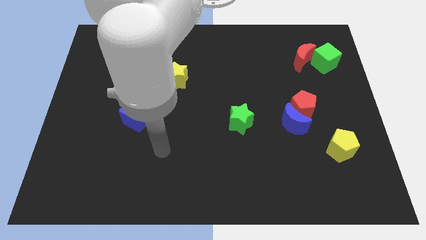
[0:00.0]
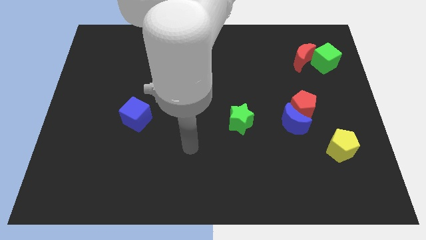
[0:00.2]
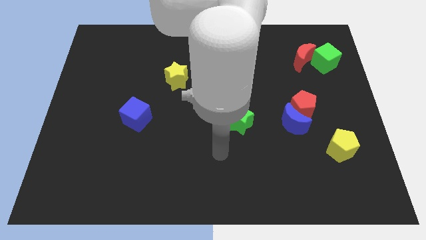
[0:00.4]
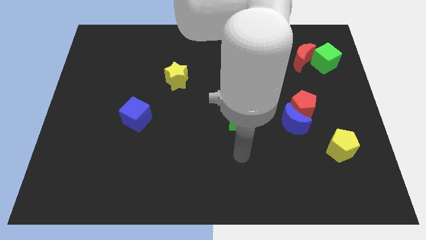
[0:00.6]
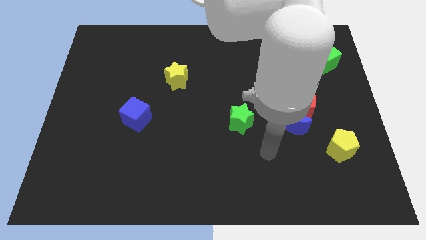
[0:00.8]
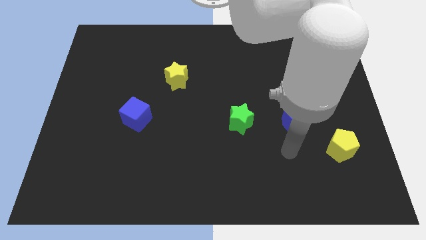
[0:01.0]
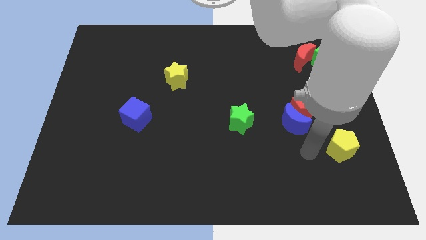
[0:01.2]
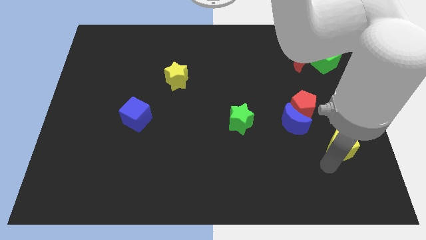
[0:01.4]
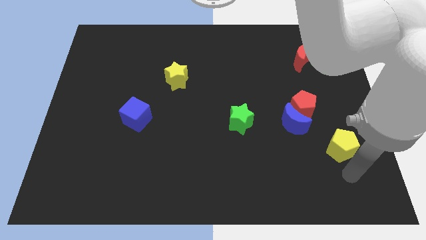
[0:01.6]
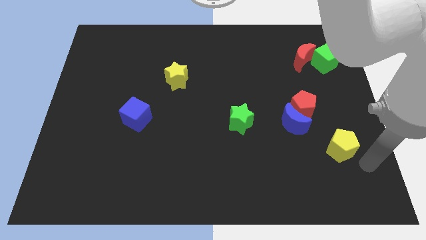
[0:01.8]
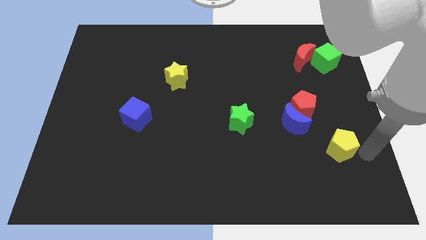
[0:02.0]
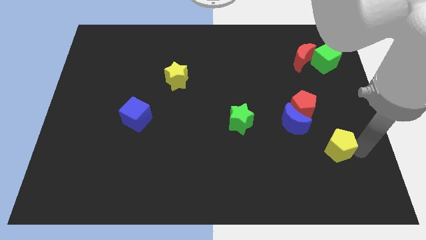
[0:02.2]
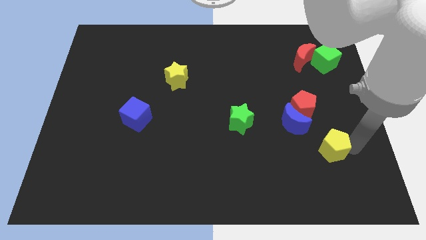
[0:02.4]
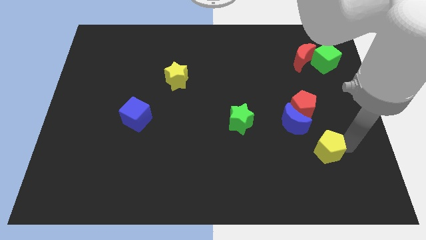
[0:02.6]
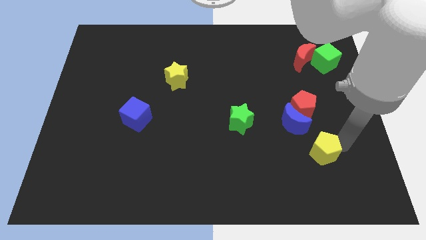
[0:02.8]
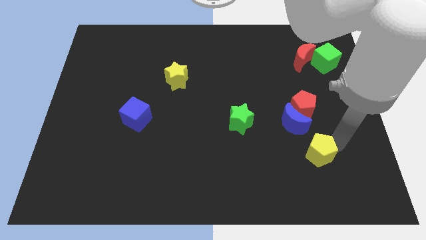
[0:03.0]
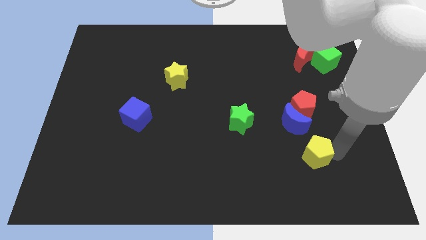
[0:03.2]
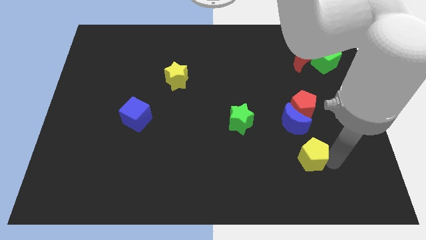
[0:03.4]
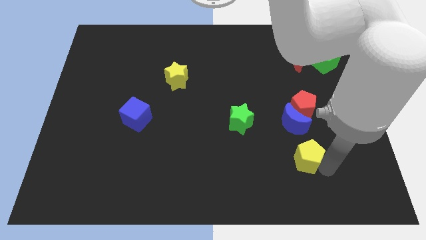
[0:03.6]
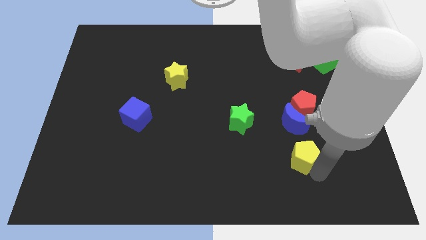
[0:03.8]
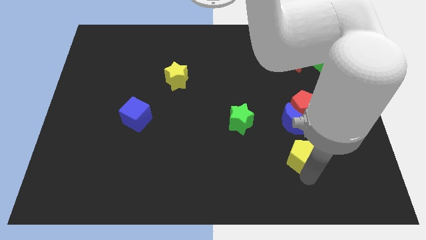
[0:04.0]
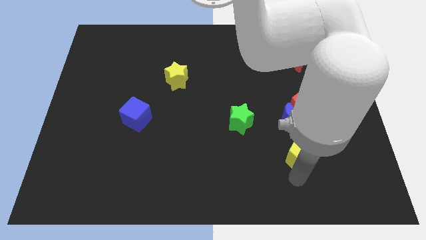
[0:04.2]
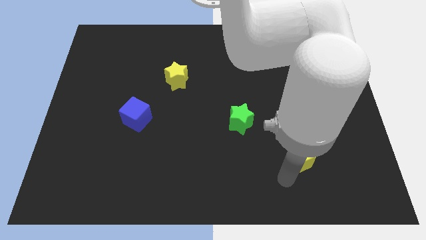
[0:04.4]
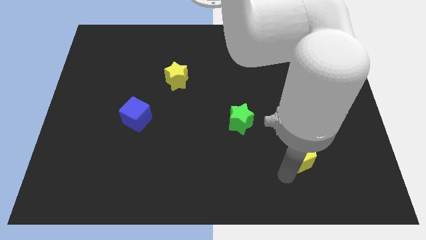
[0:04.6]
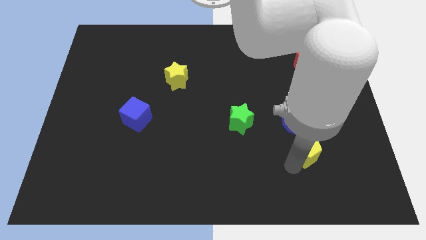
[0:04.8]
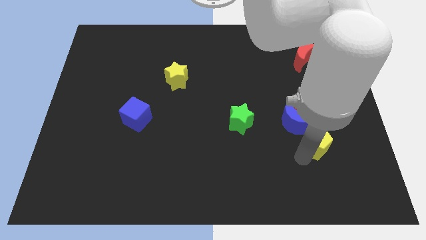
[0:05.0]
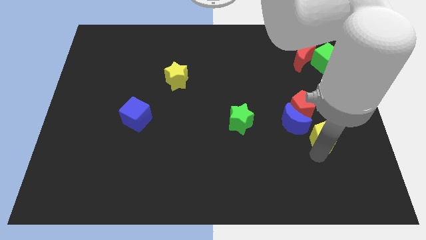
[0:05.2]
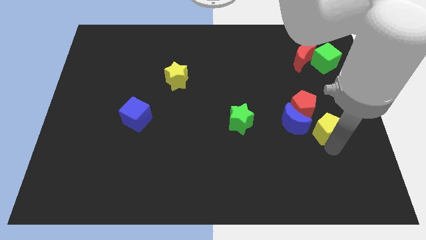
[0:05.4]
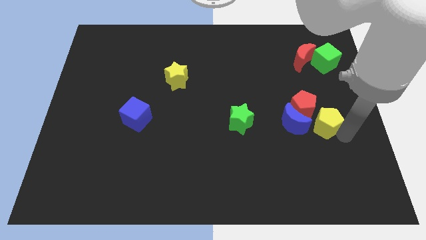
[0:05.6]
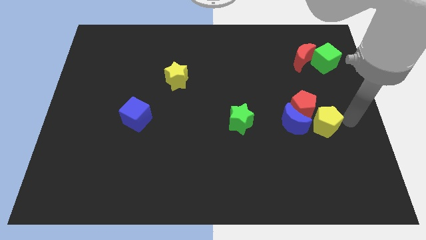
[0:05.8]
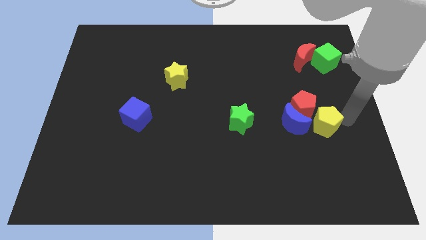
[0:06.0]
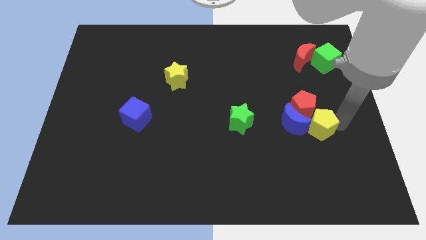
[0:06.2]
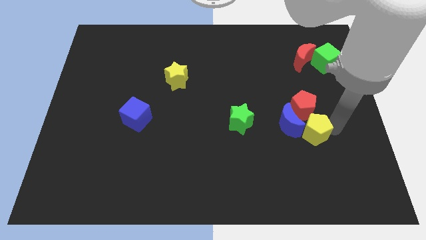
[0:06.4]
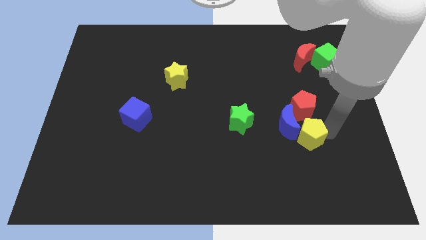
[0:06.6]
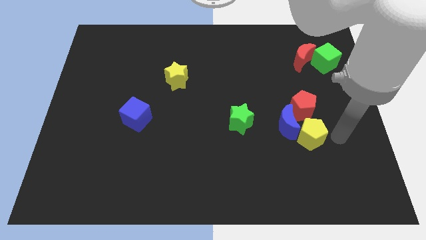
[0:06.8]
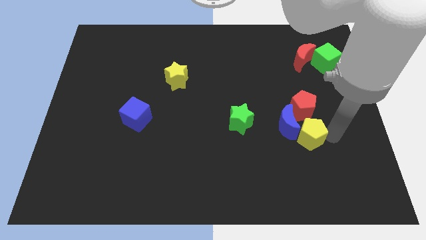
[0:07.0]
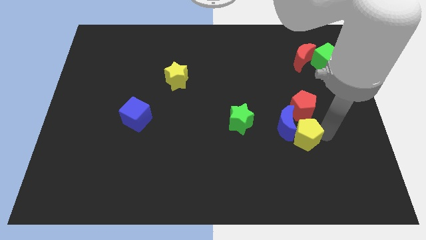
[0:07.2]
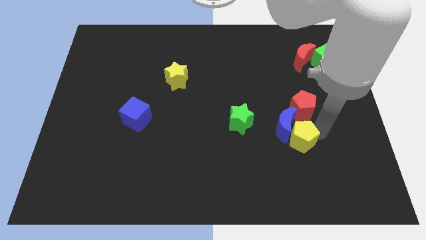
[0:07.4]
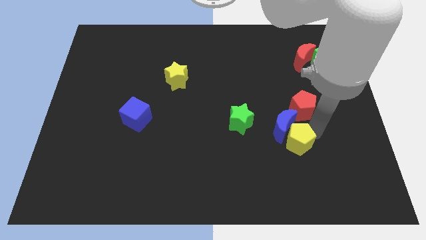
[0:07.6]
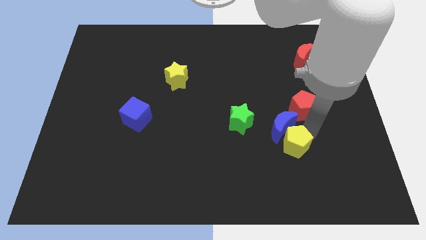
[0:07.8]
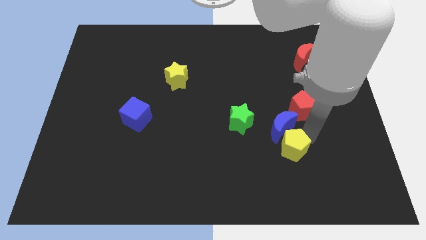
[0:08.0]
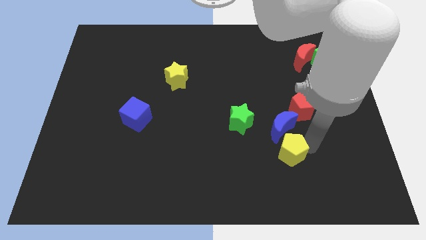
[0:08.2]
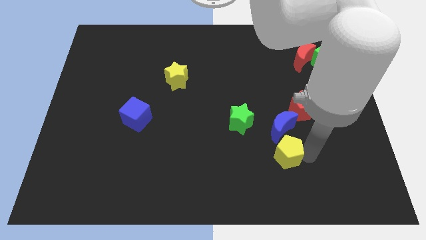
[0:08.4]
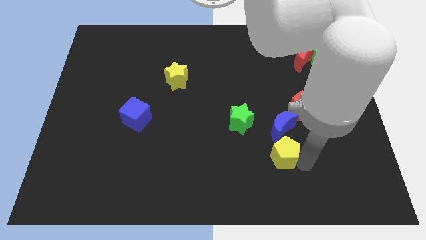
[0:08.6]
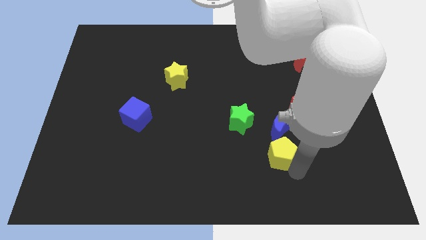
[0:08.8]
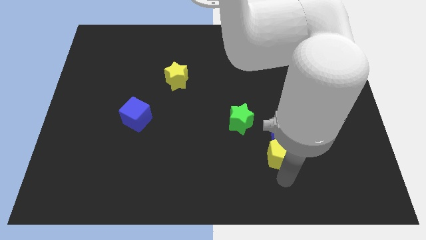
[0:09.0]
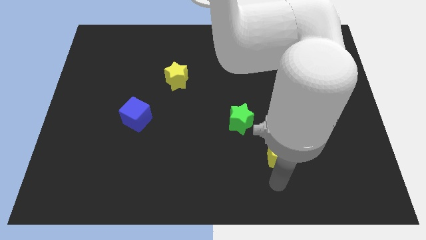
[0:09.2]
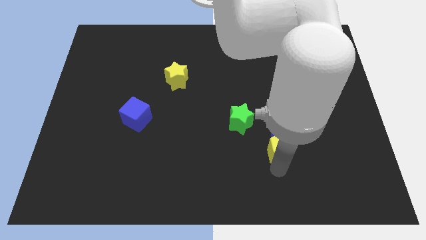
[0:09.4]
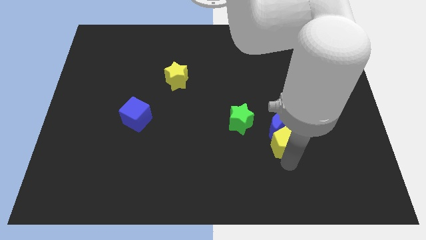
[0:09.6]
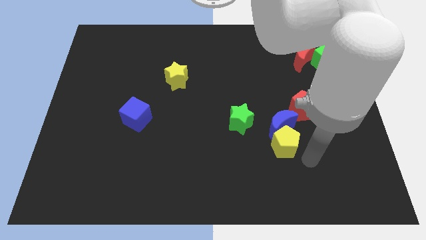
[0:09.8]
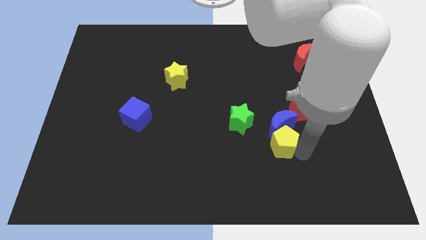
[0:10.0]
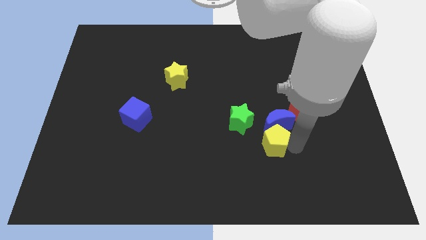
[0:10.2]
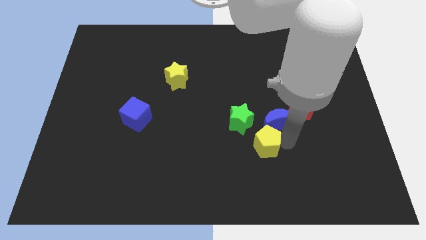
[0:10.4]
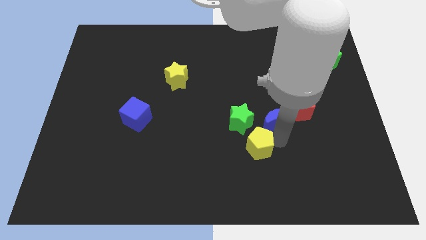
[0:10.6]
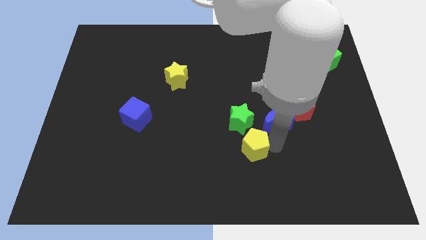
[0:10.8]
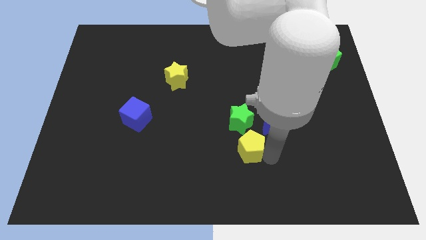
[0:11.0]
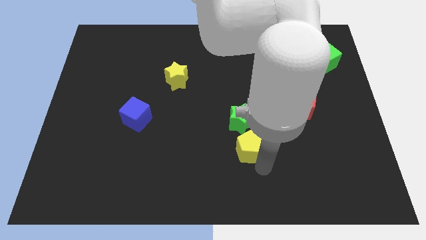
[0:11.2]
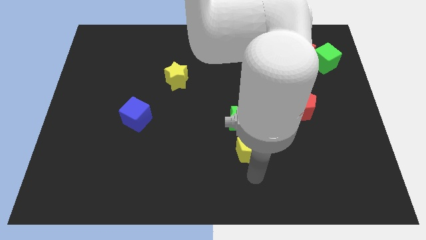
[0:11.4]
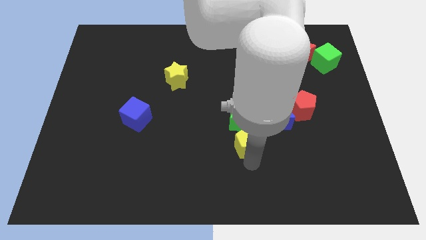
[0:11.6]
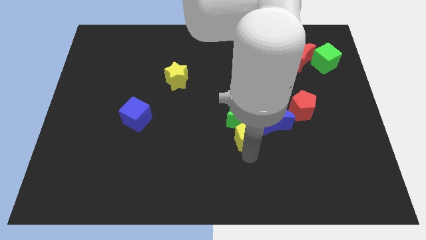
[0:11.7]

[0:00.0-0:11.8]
move the yellow pentagon next to the green star
